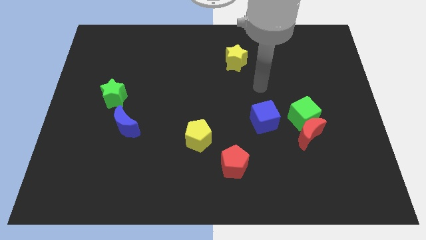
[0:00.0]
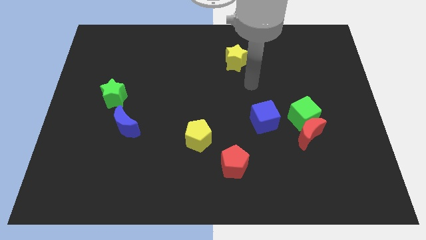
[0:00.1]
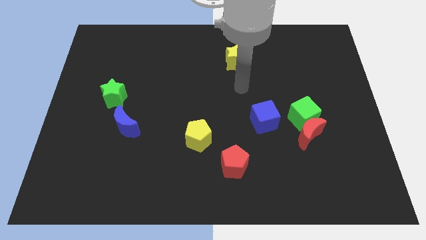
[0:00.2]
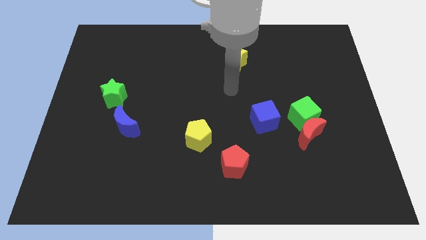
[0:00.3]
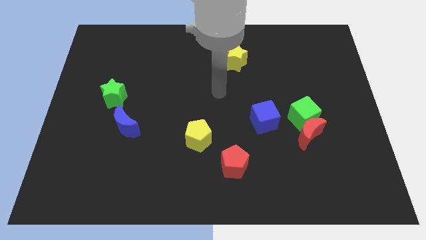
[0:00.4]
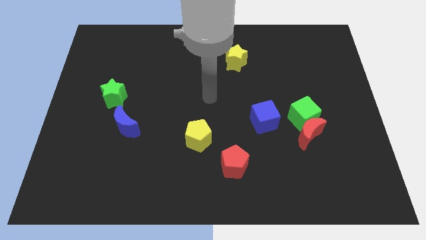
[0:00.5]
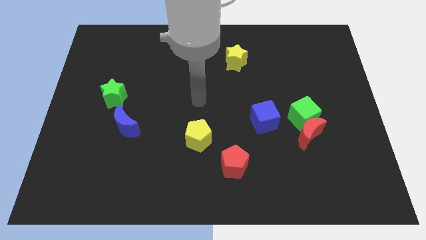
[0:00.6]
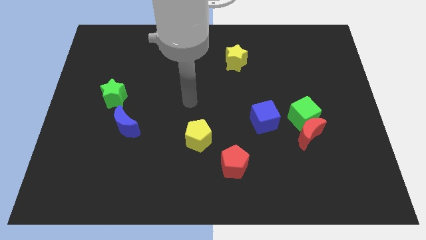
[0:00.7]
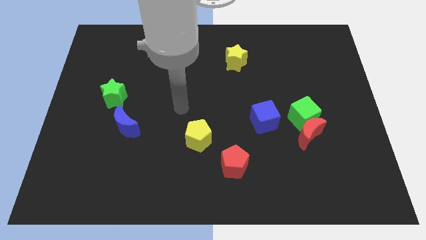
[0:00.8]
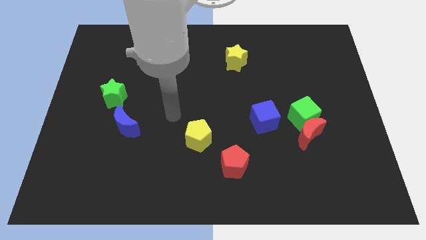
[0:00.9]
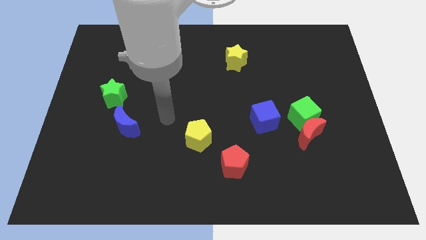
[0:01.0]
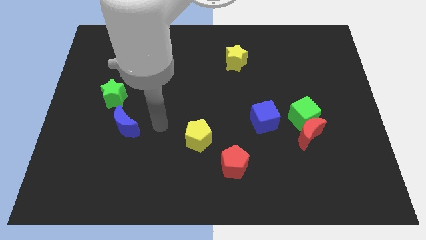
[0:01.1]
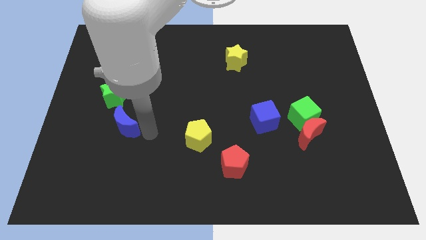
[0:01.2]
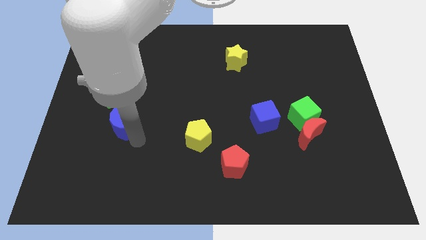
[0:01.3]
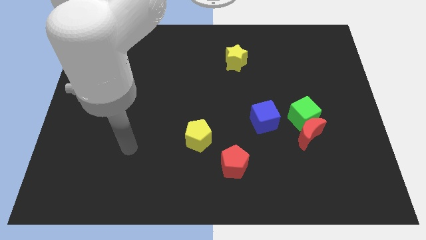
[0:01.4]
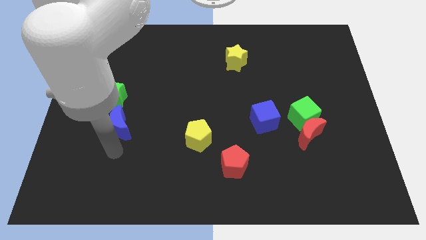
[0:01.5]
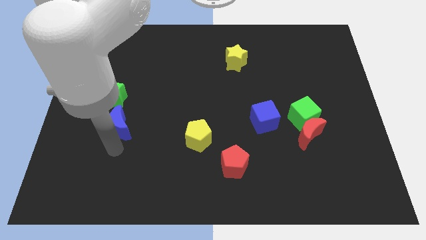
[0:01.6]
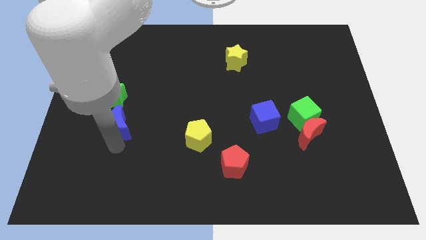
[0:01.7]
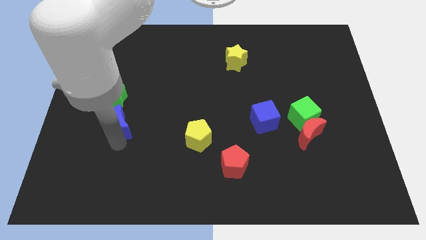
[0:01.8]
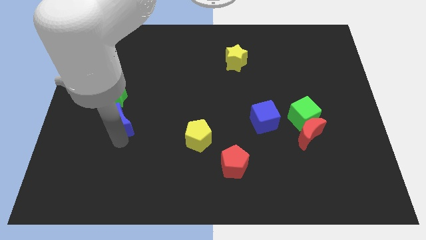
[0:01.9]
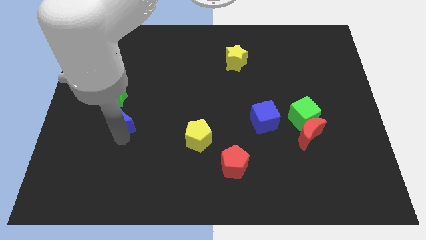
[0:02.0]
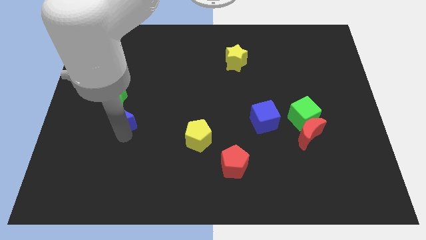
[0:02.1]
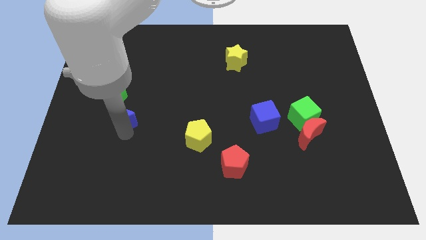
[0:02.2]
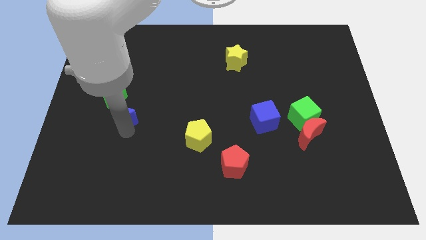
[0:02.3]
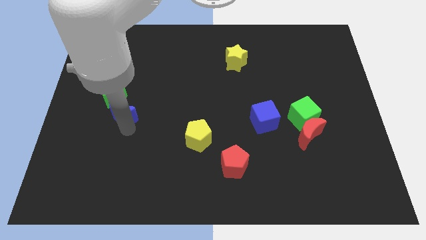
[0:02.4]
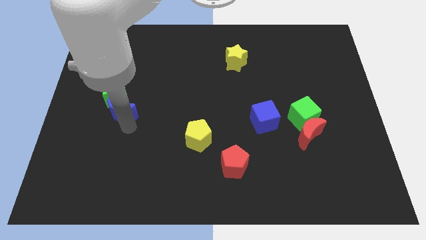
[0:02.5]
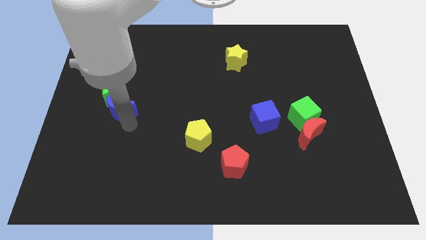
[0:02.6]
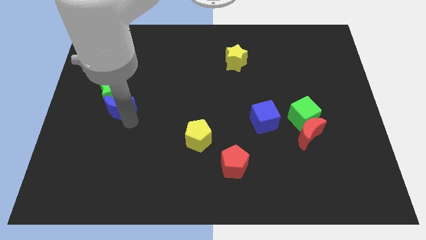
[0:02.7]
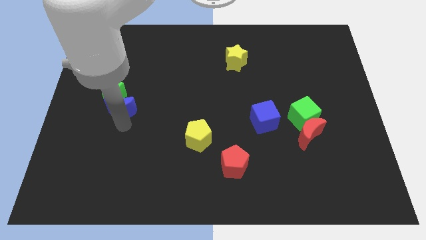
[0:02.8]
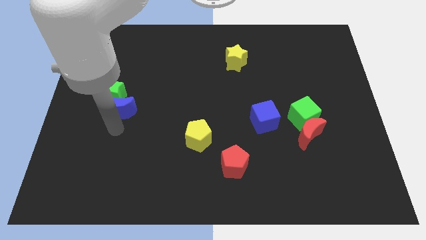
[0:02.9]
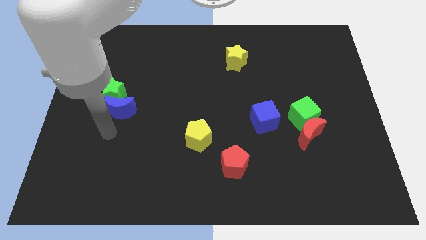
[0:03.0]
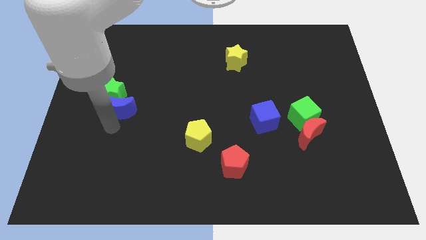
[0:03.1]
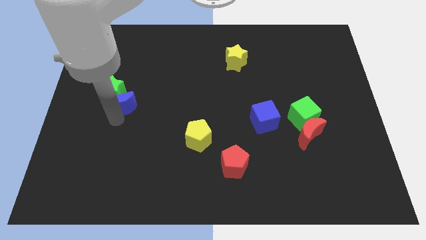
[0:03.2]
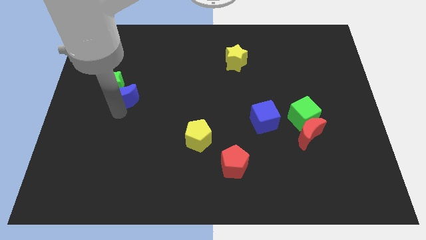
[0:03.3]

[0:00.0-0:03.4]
slightly move the blue moon up

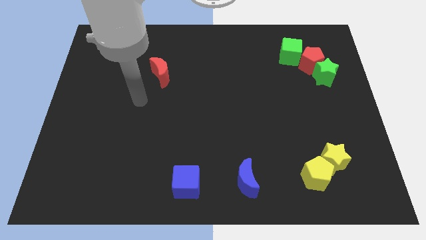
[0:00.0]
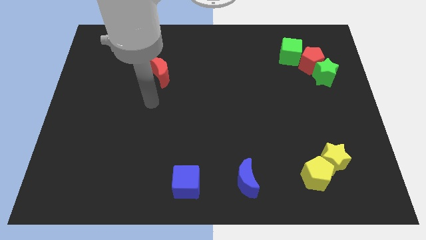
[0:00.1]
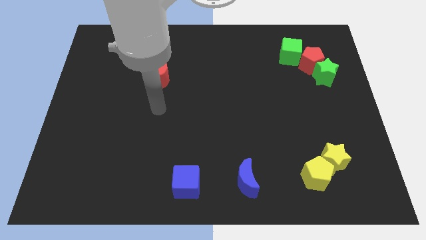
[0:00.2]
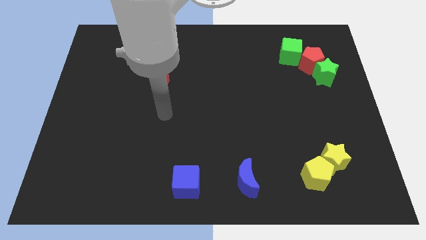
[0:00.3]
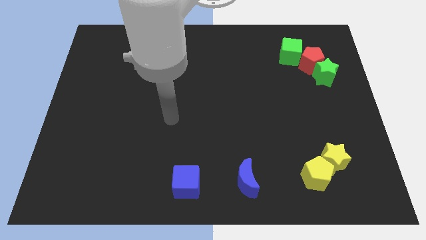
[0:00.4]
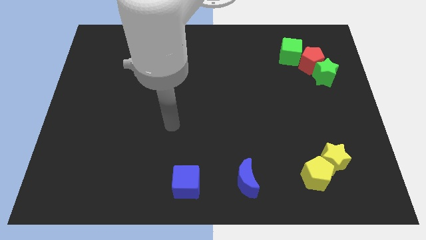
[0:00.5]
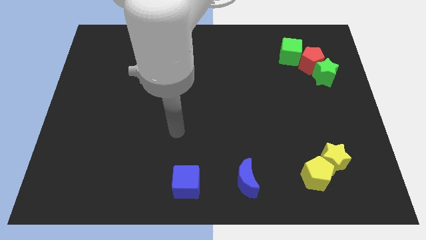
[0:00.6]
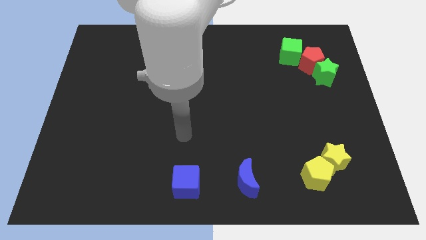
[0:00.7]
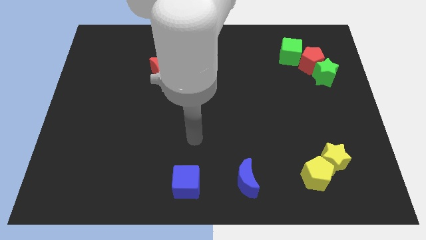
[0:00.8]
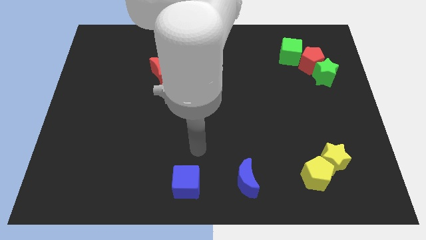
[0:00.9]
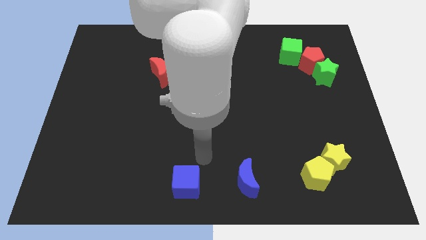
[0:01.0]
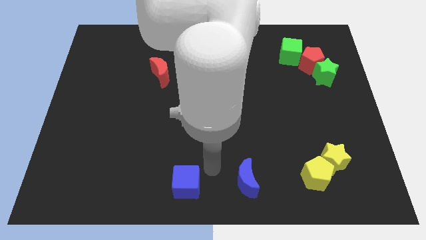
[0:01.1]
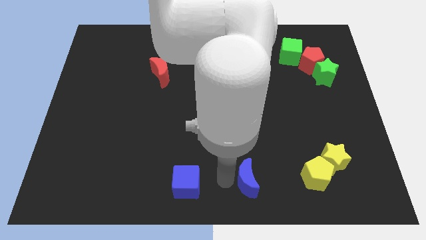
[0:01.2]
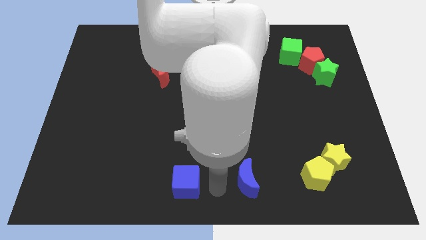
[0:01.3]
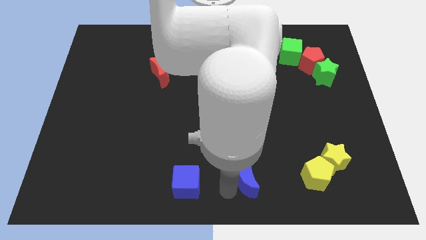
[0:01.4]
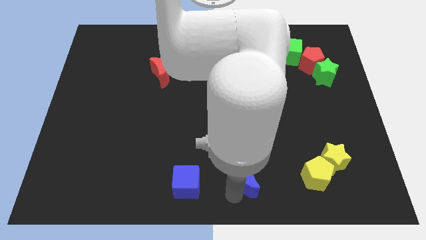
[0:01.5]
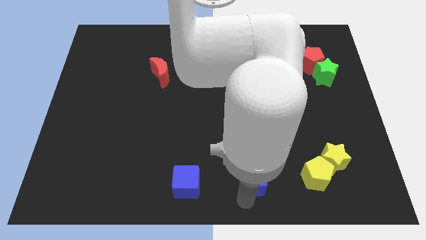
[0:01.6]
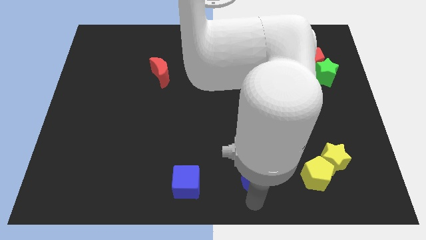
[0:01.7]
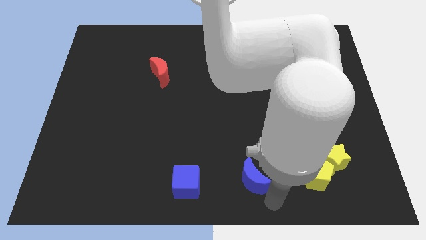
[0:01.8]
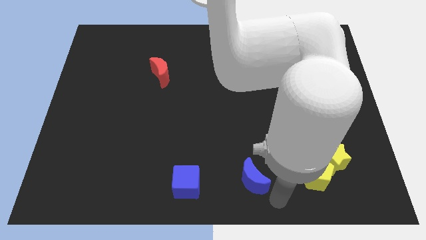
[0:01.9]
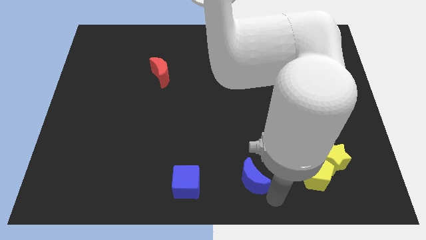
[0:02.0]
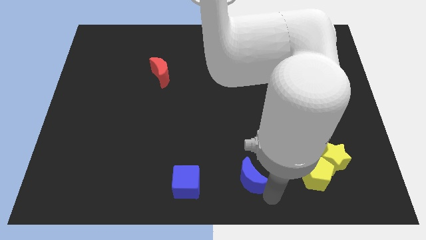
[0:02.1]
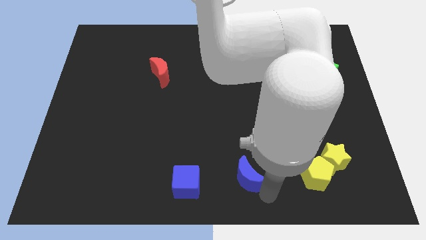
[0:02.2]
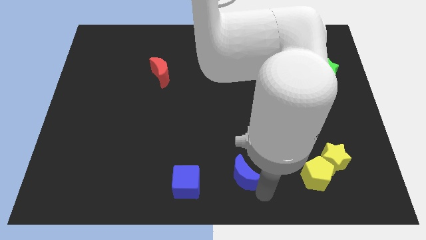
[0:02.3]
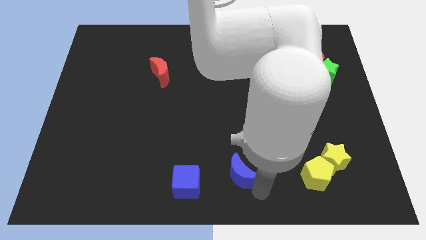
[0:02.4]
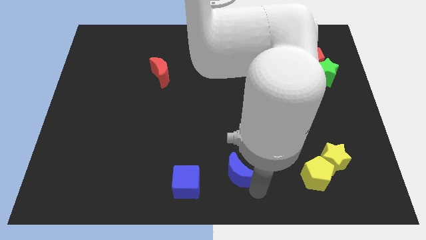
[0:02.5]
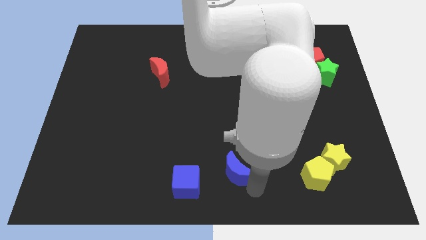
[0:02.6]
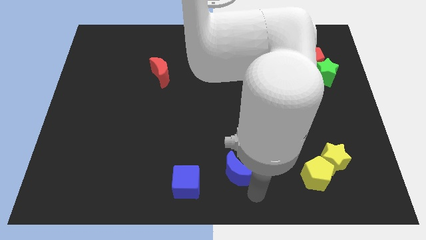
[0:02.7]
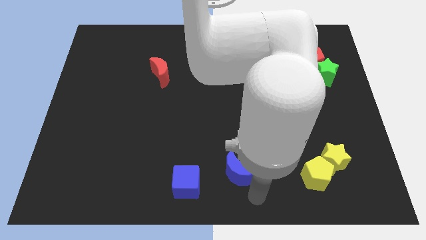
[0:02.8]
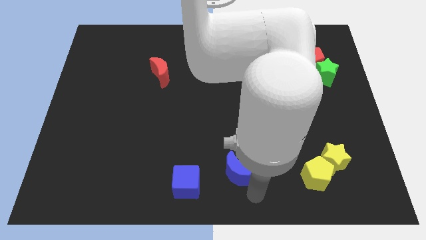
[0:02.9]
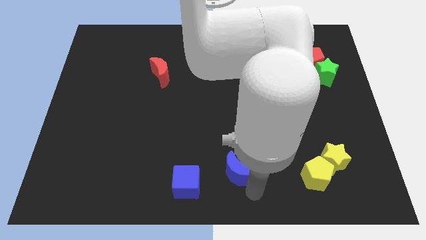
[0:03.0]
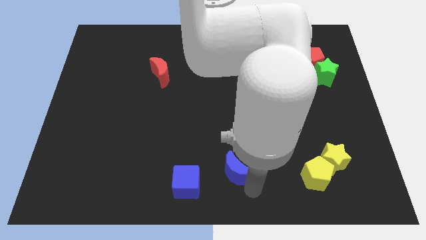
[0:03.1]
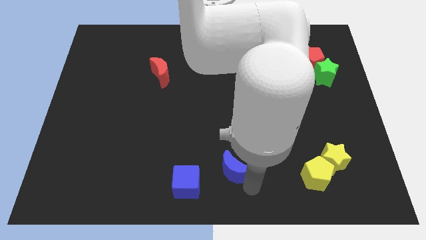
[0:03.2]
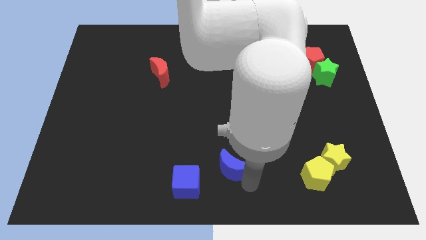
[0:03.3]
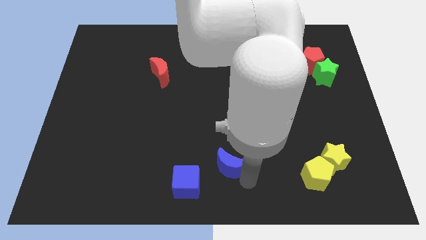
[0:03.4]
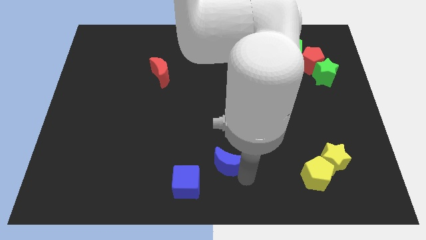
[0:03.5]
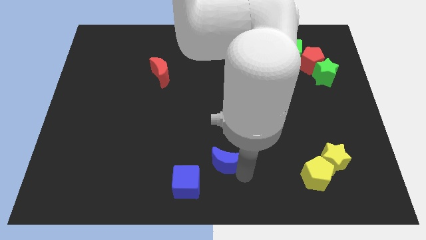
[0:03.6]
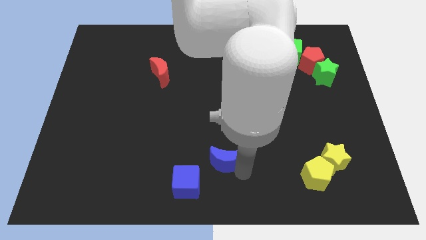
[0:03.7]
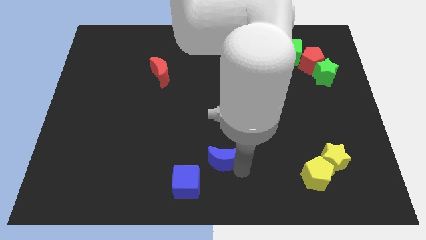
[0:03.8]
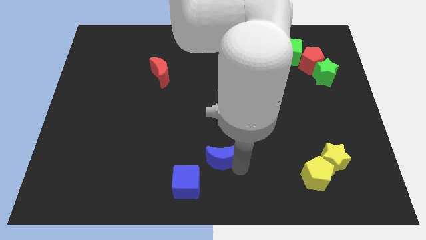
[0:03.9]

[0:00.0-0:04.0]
slide the blue moon up and left diagonally a little

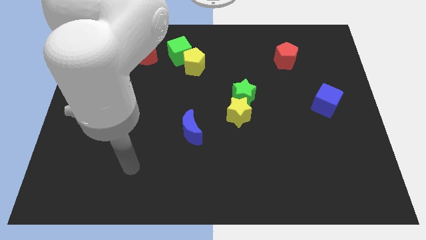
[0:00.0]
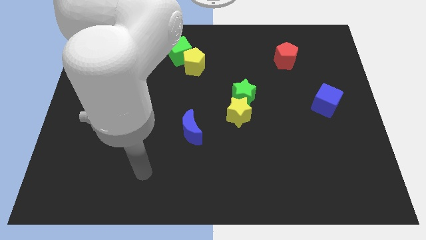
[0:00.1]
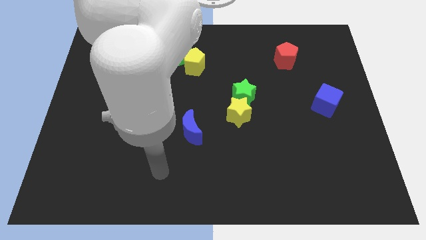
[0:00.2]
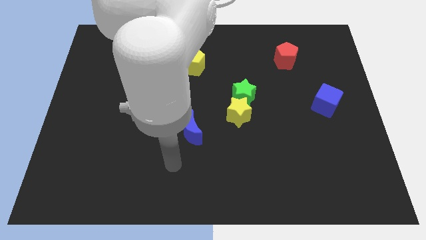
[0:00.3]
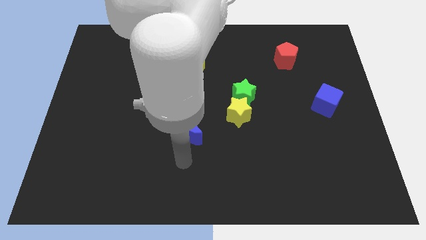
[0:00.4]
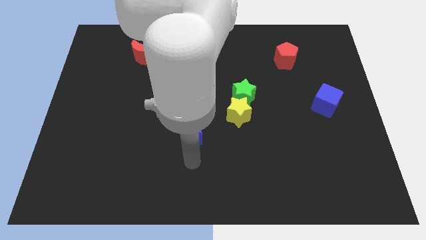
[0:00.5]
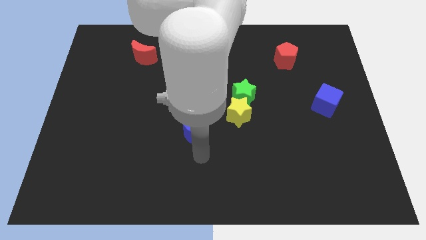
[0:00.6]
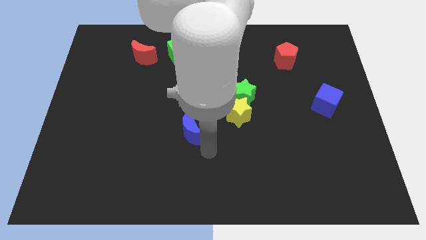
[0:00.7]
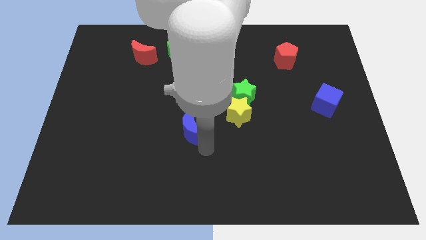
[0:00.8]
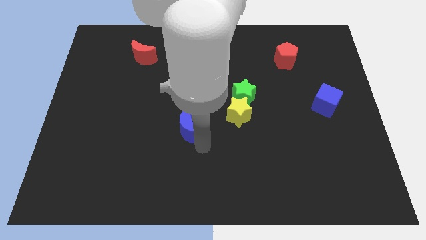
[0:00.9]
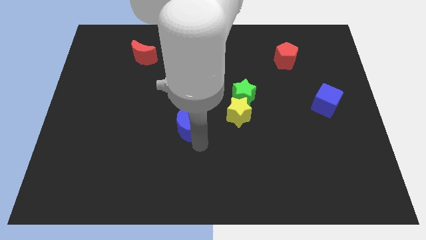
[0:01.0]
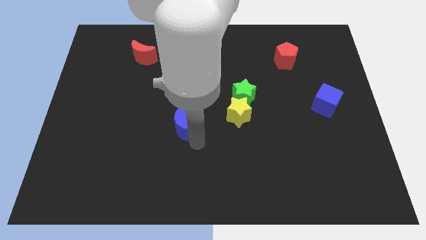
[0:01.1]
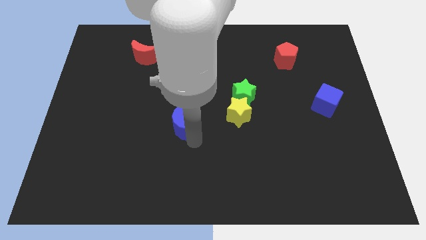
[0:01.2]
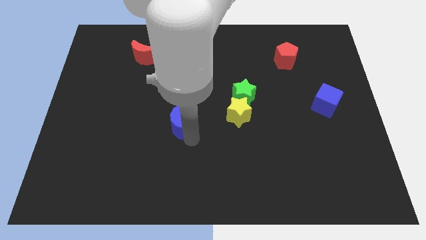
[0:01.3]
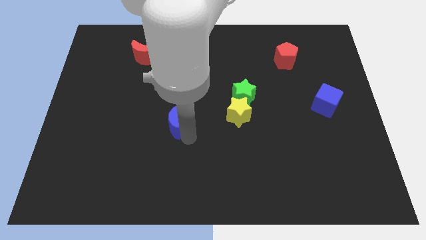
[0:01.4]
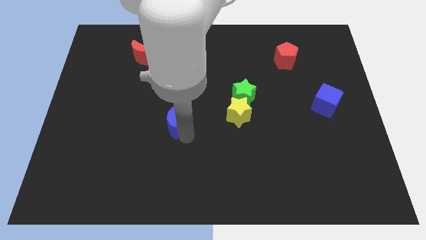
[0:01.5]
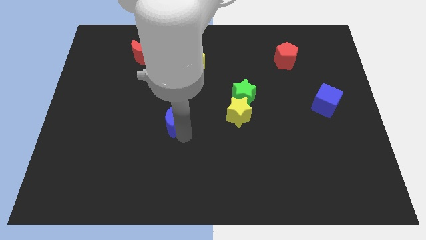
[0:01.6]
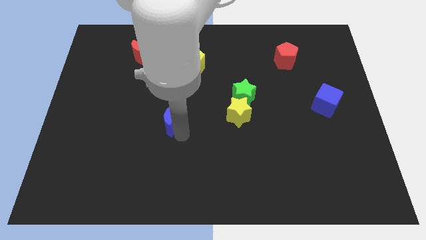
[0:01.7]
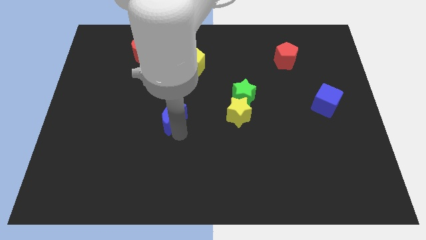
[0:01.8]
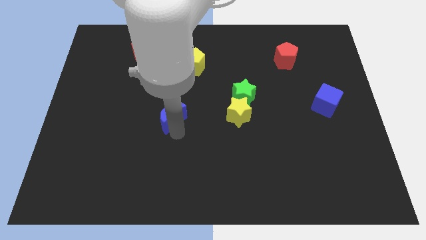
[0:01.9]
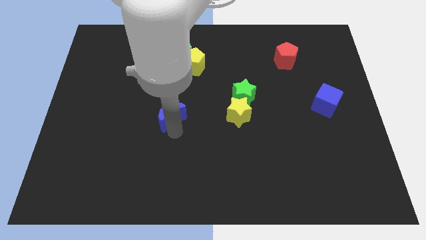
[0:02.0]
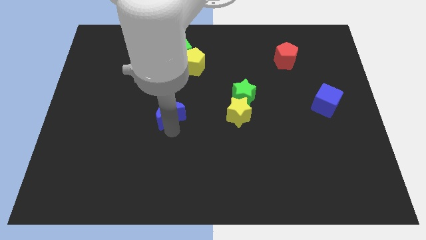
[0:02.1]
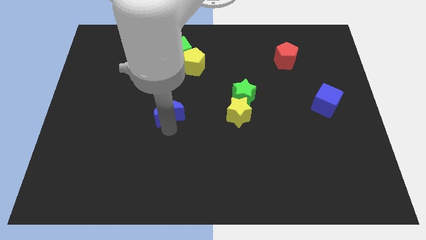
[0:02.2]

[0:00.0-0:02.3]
slightly push the blue moon upwards and then to the left
